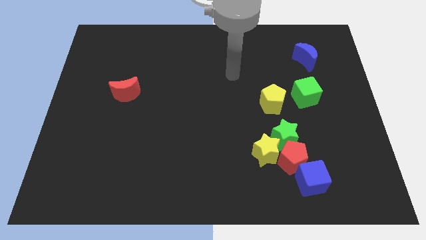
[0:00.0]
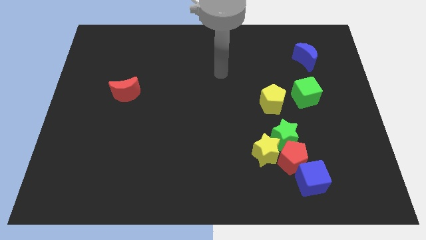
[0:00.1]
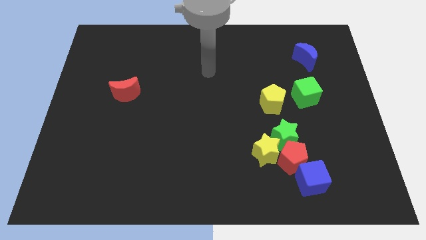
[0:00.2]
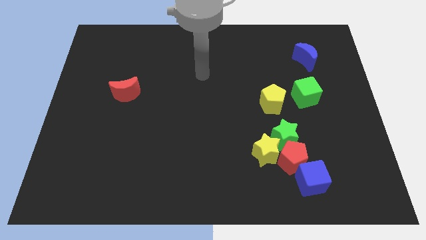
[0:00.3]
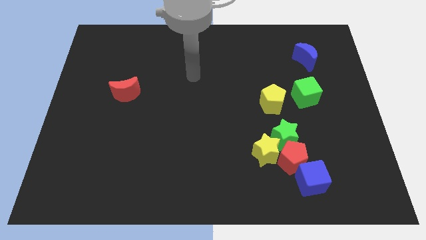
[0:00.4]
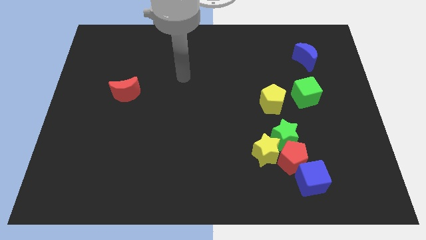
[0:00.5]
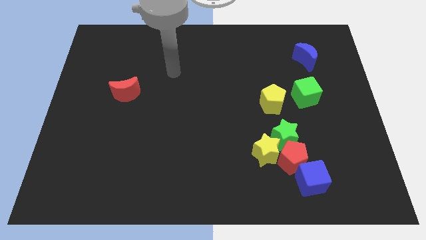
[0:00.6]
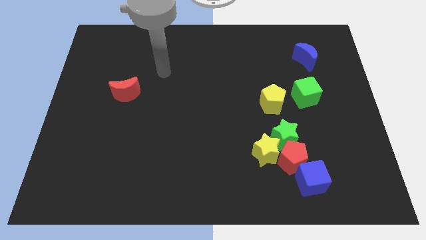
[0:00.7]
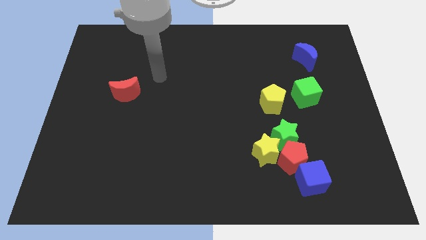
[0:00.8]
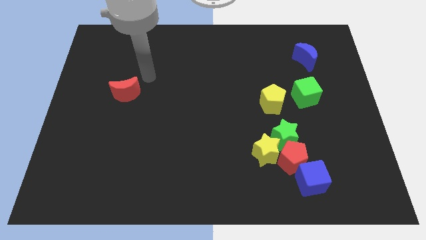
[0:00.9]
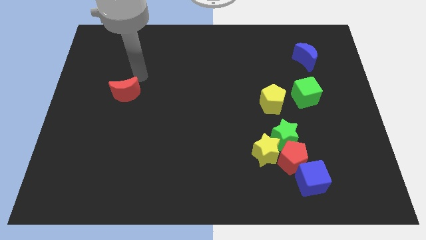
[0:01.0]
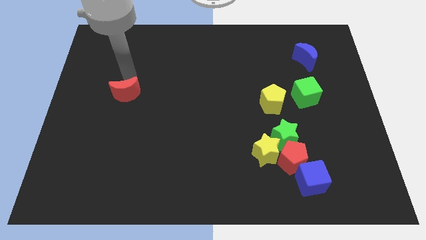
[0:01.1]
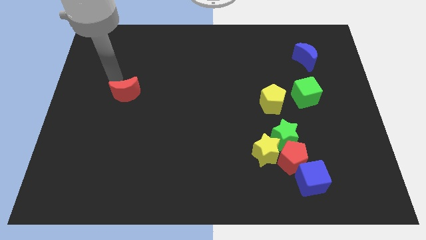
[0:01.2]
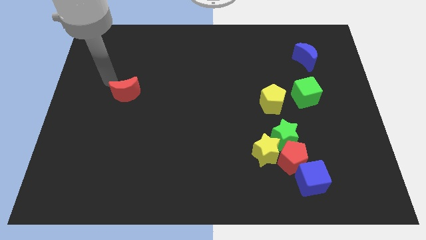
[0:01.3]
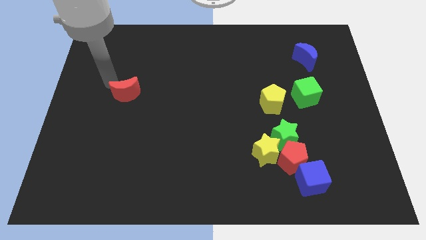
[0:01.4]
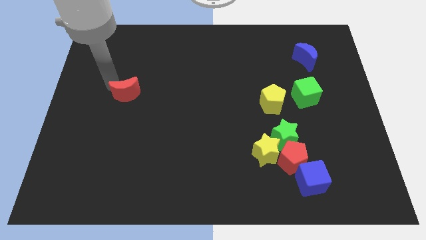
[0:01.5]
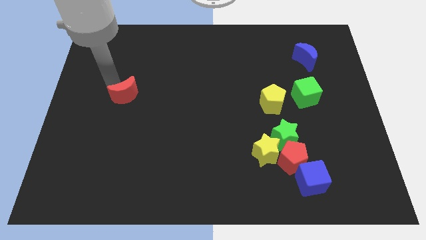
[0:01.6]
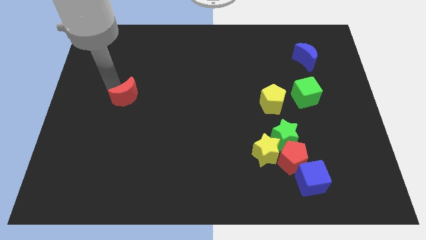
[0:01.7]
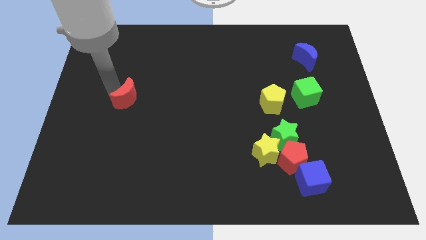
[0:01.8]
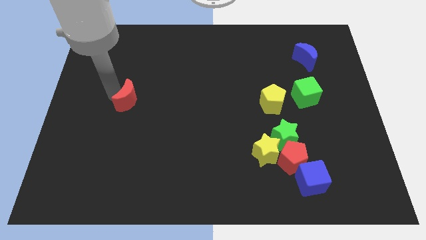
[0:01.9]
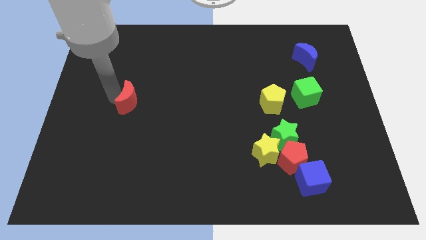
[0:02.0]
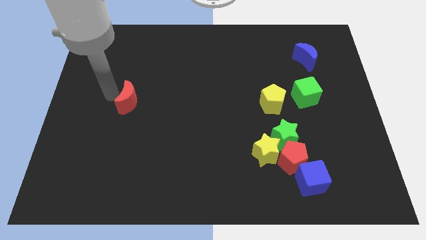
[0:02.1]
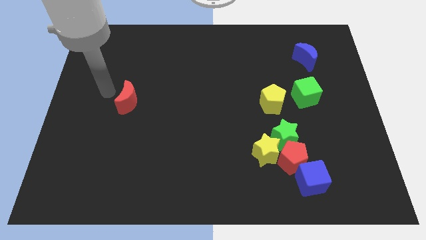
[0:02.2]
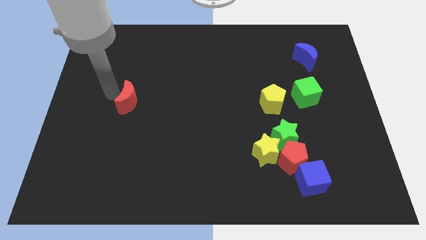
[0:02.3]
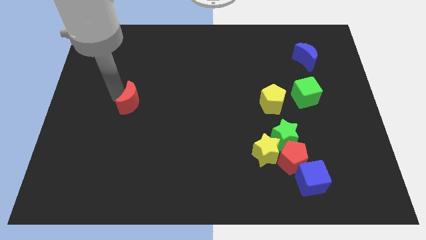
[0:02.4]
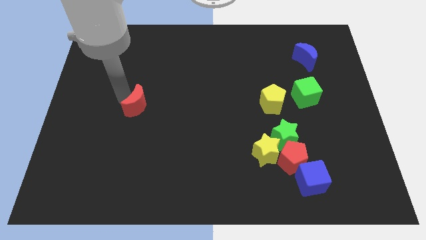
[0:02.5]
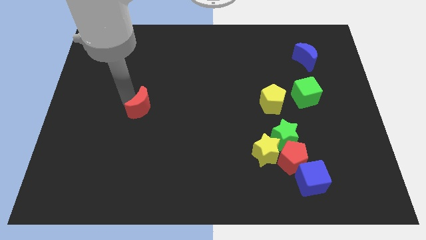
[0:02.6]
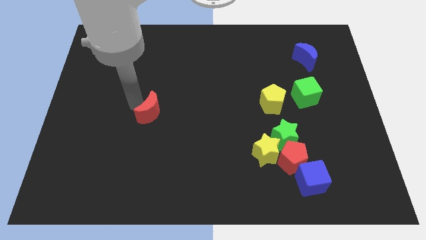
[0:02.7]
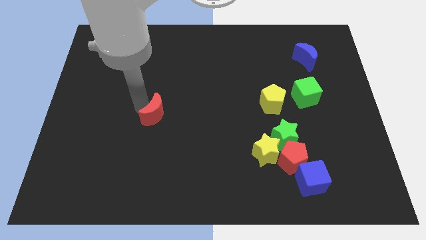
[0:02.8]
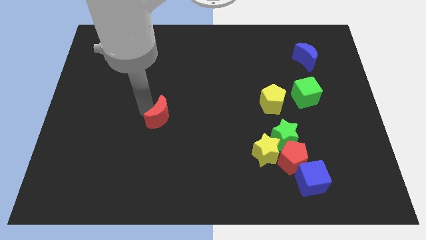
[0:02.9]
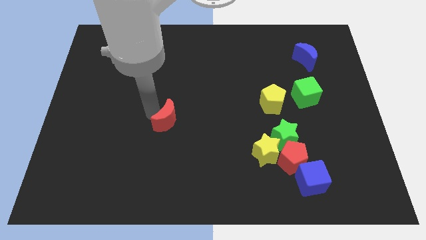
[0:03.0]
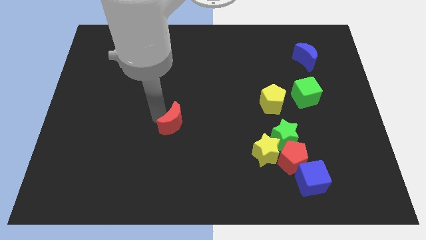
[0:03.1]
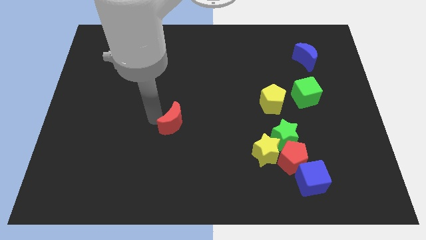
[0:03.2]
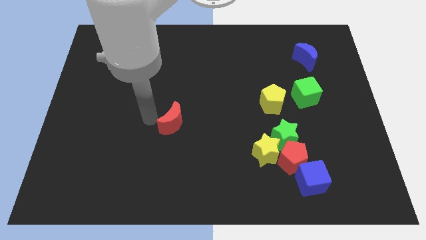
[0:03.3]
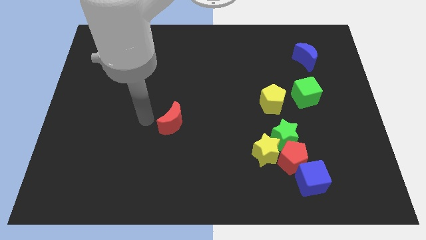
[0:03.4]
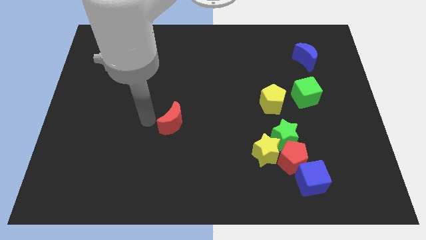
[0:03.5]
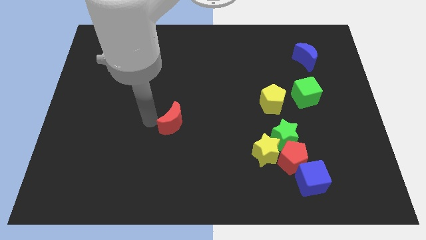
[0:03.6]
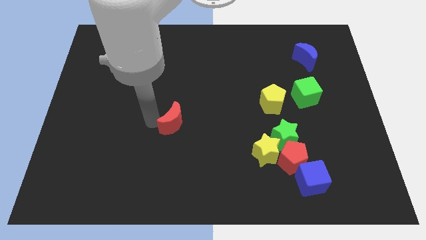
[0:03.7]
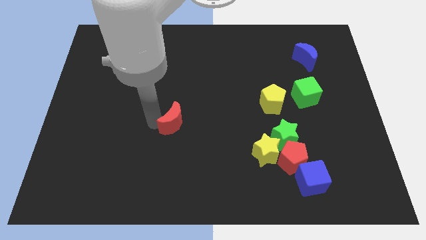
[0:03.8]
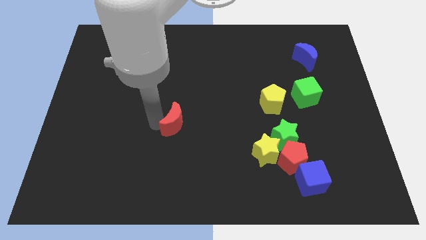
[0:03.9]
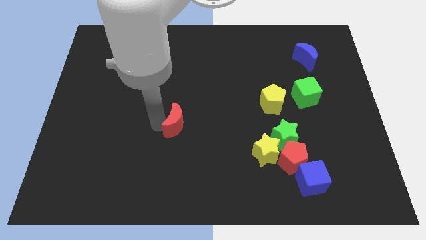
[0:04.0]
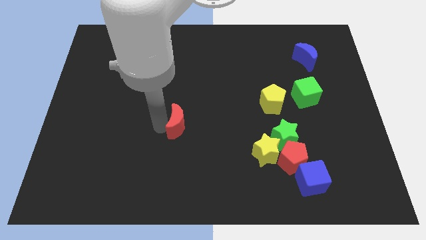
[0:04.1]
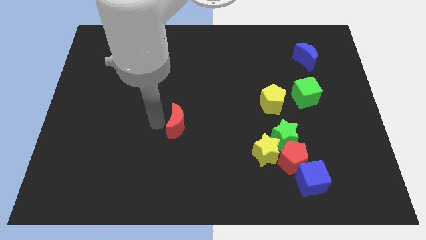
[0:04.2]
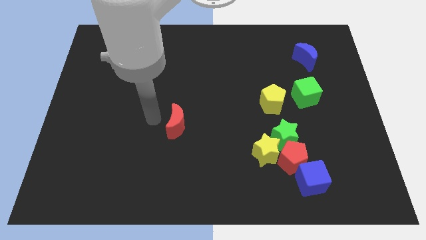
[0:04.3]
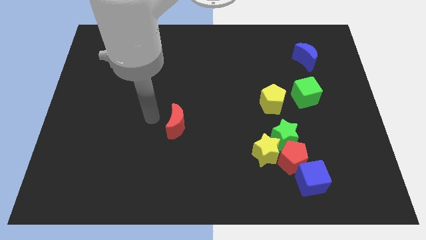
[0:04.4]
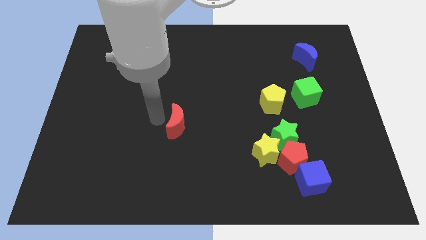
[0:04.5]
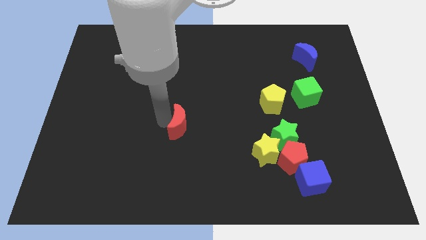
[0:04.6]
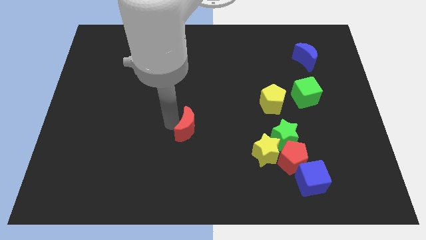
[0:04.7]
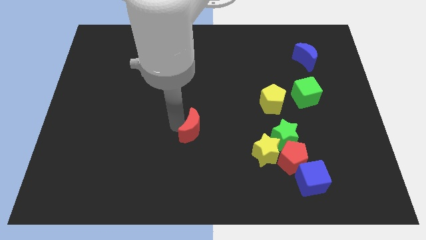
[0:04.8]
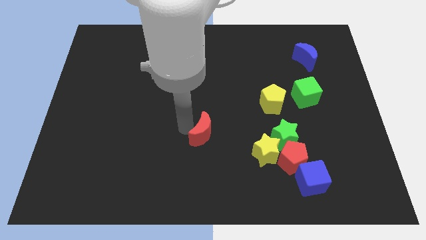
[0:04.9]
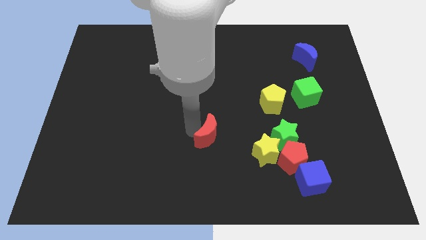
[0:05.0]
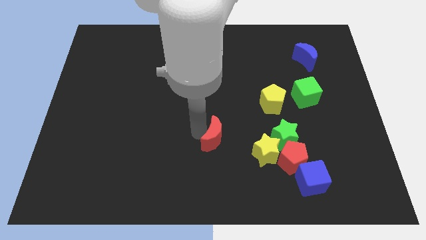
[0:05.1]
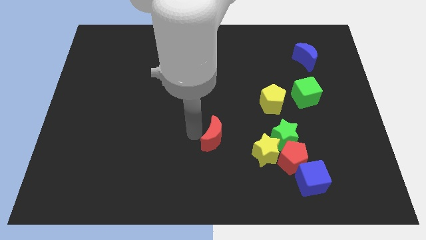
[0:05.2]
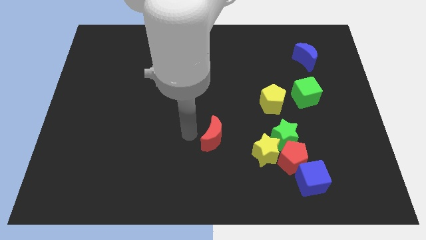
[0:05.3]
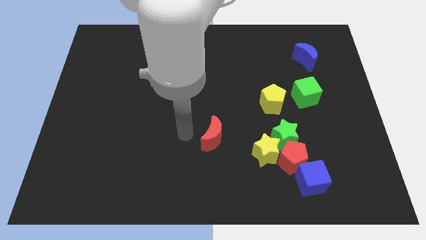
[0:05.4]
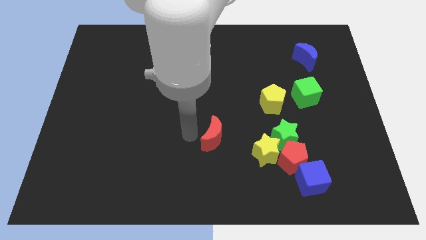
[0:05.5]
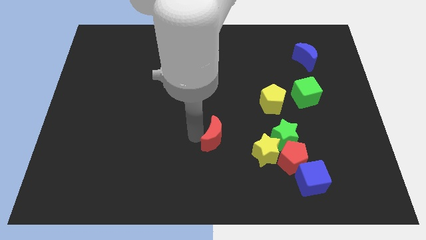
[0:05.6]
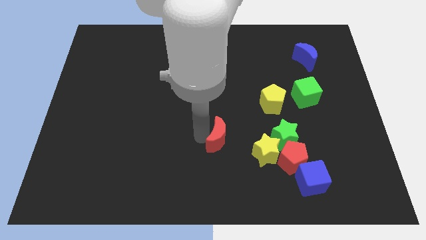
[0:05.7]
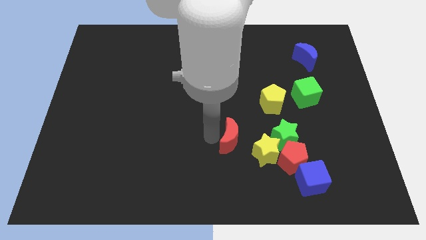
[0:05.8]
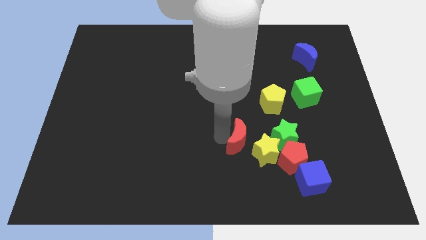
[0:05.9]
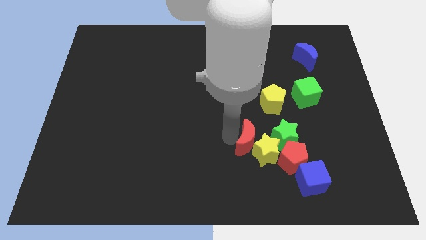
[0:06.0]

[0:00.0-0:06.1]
put the red moon to the yellow star
